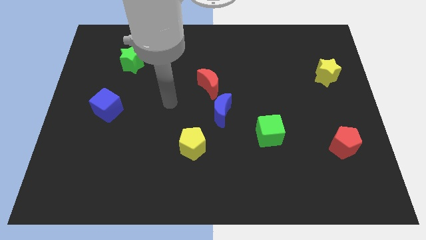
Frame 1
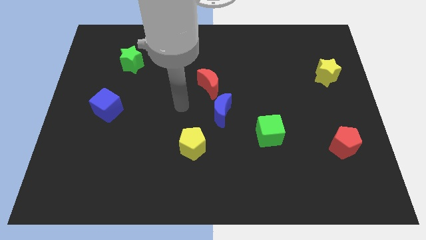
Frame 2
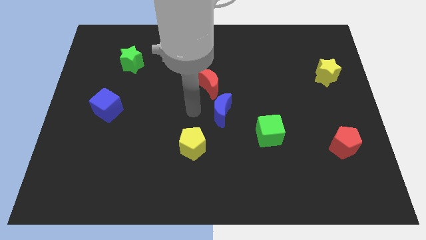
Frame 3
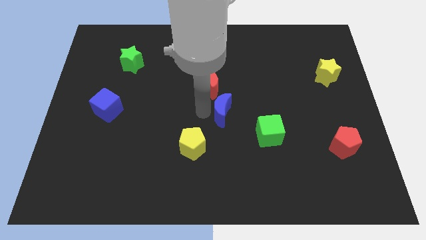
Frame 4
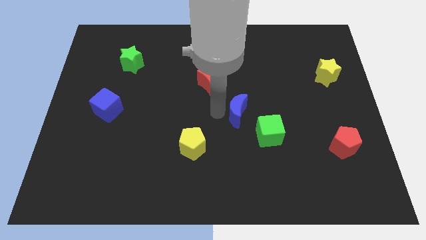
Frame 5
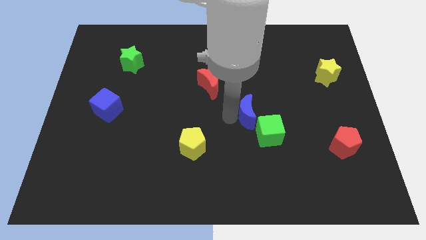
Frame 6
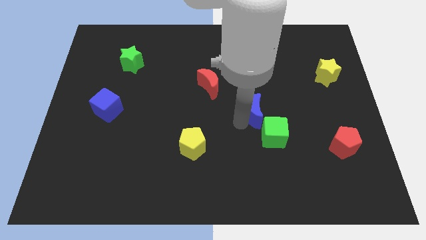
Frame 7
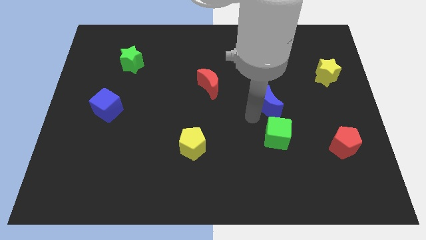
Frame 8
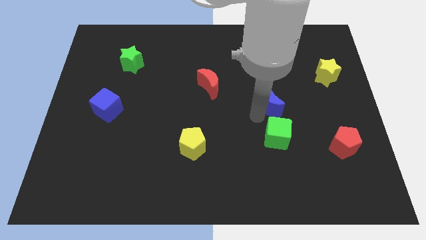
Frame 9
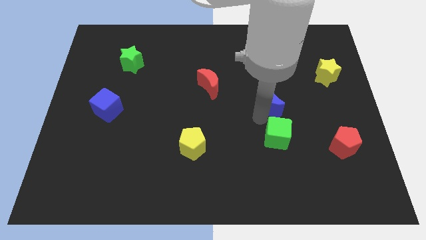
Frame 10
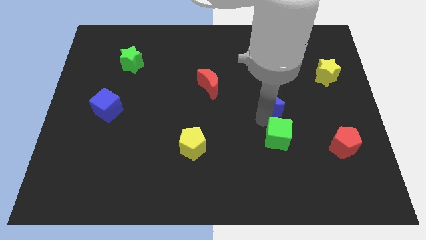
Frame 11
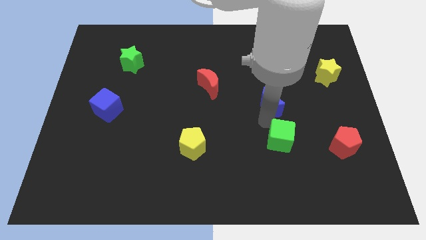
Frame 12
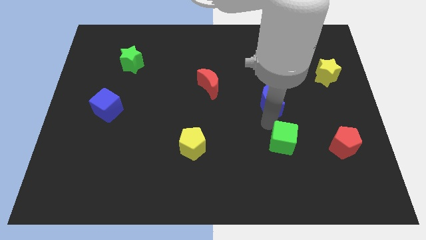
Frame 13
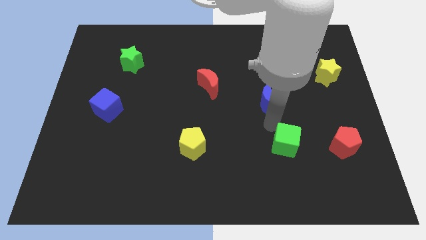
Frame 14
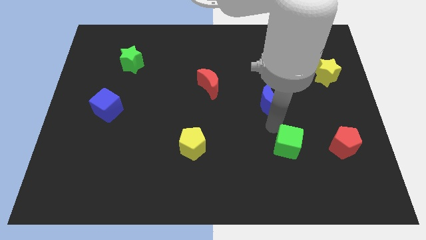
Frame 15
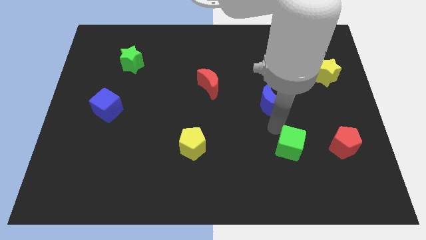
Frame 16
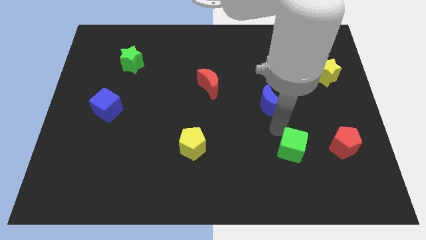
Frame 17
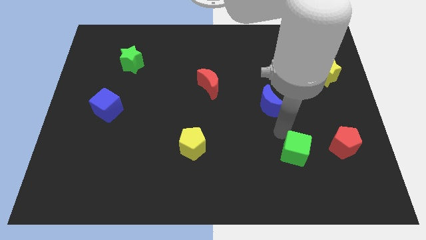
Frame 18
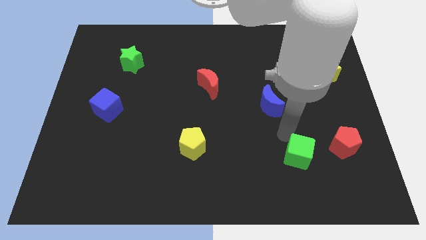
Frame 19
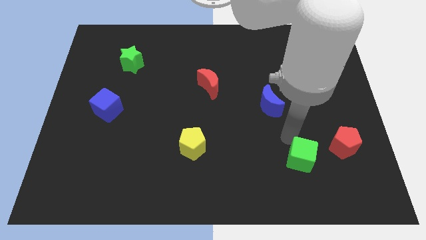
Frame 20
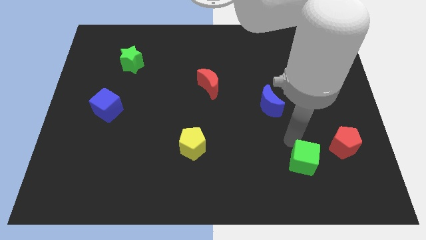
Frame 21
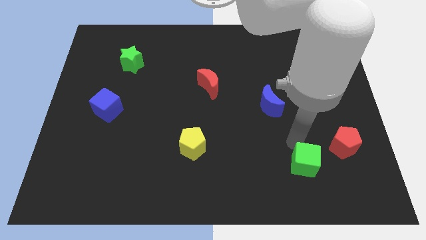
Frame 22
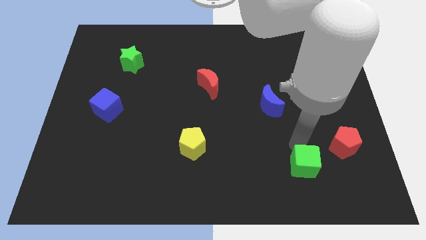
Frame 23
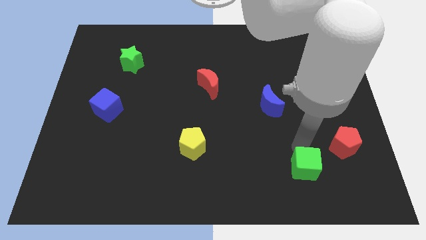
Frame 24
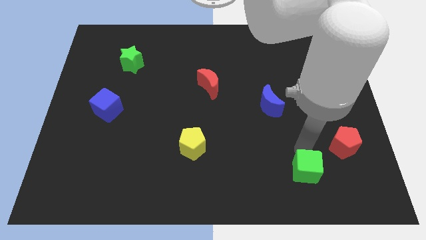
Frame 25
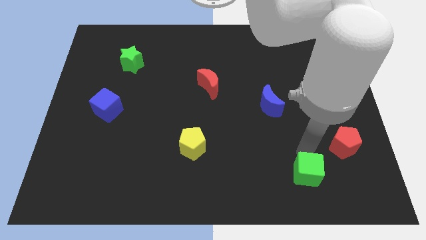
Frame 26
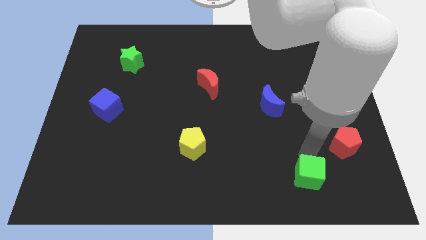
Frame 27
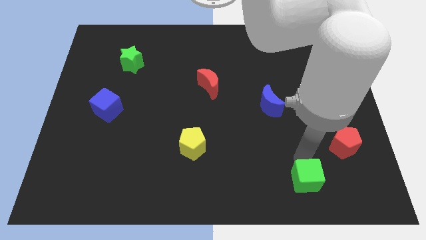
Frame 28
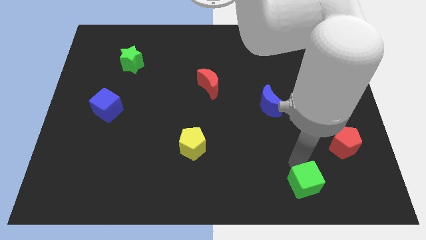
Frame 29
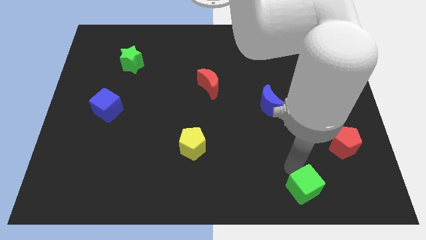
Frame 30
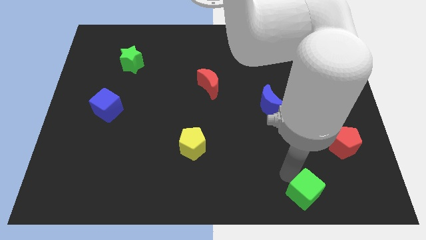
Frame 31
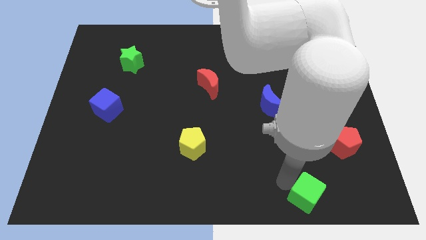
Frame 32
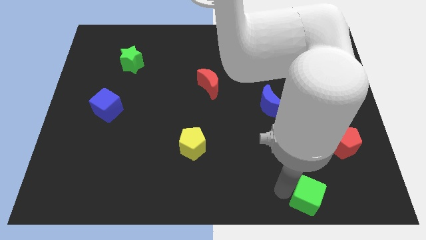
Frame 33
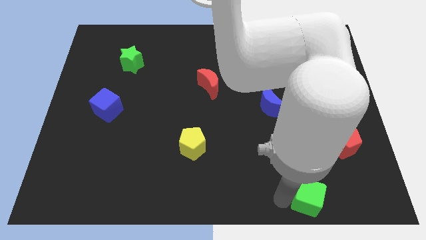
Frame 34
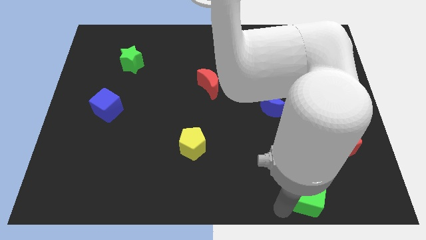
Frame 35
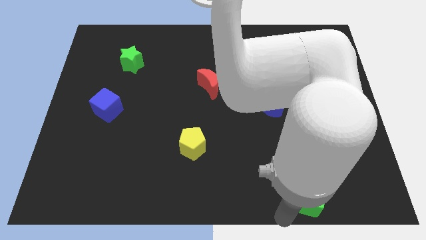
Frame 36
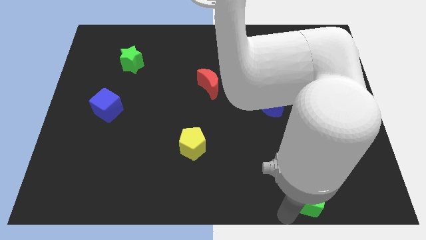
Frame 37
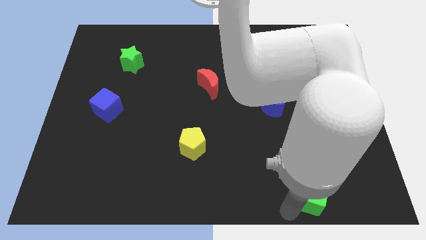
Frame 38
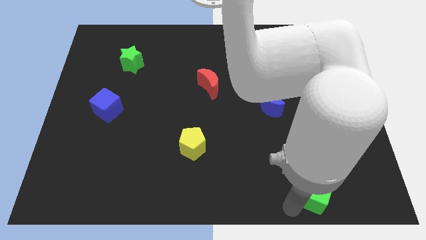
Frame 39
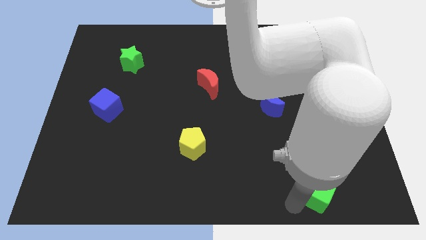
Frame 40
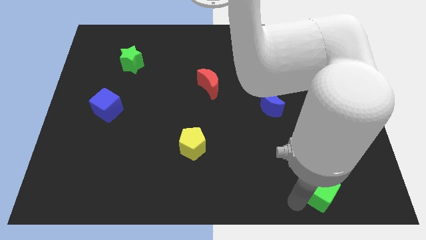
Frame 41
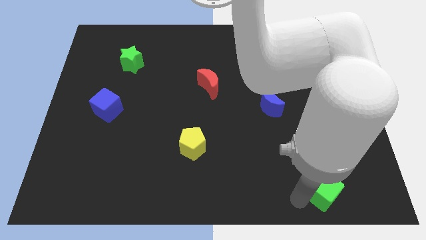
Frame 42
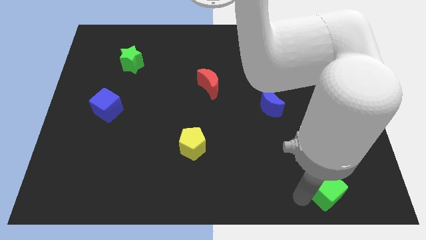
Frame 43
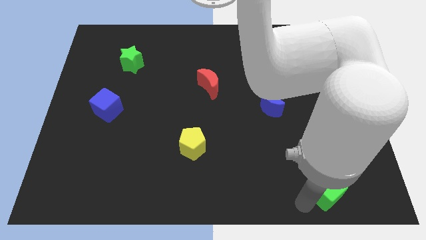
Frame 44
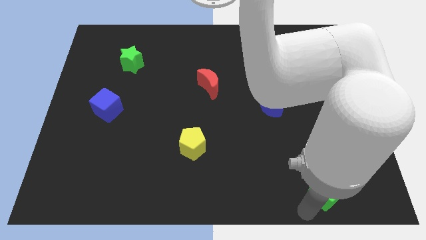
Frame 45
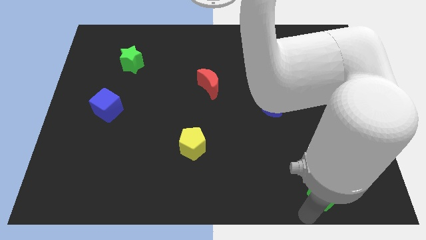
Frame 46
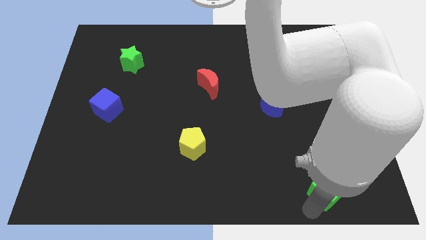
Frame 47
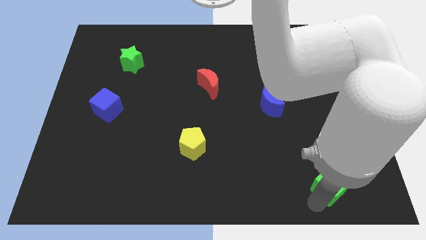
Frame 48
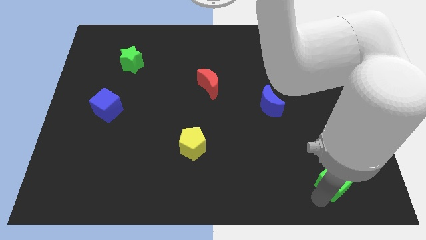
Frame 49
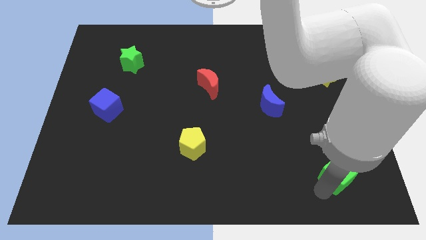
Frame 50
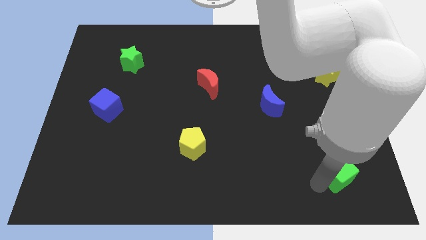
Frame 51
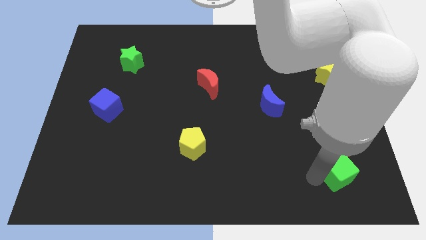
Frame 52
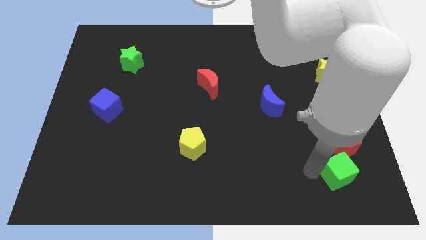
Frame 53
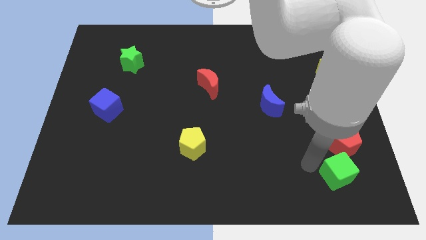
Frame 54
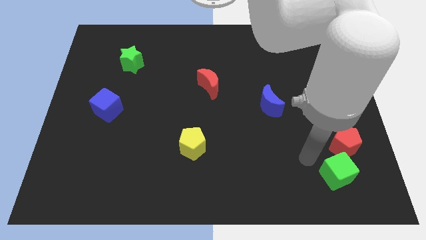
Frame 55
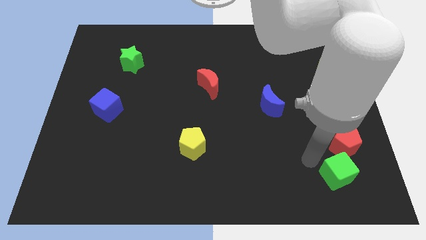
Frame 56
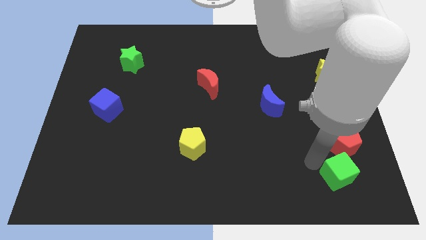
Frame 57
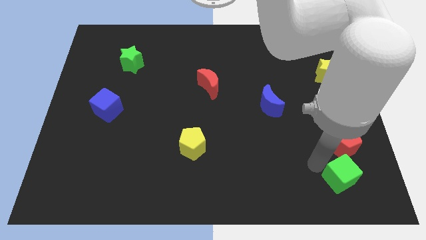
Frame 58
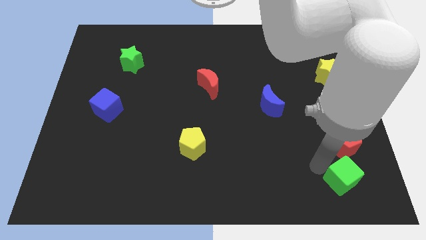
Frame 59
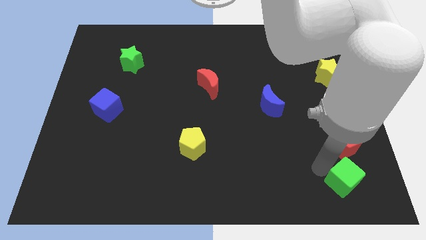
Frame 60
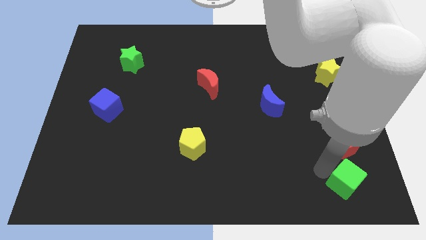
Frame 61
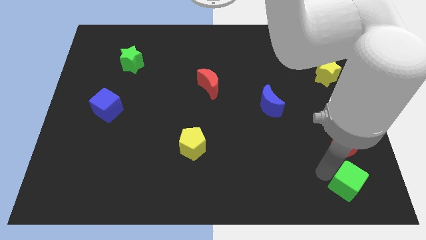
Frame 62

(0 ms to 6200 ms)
move the green cube to the bottom right corner

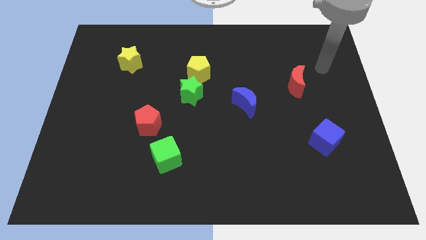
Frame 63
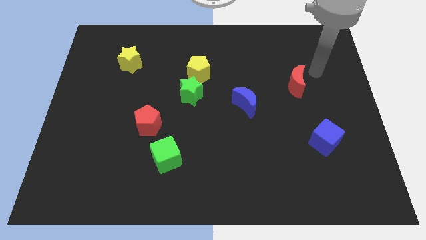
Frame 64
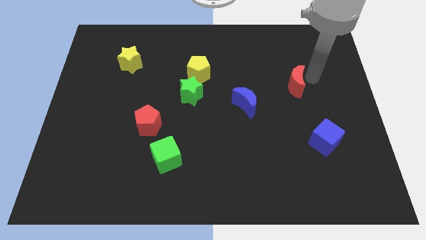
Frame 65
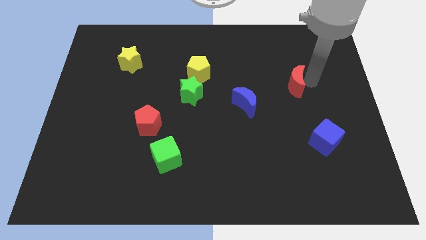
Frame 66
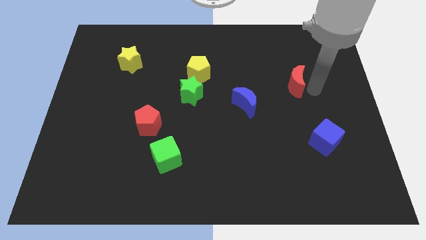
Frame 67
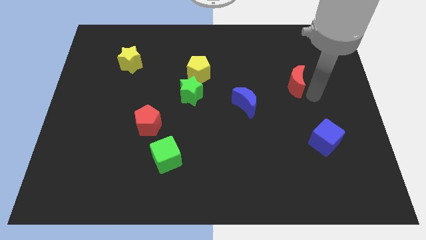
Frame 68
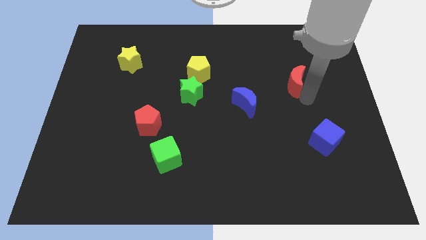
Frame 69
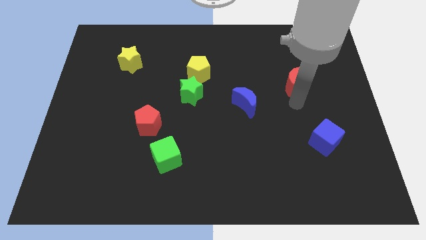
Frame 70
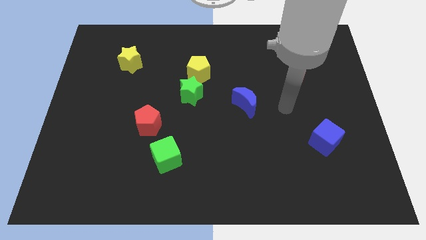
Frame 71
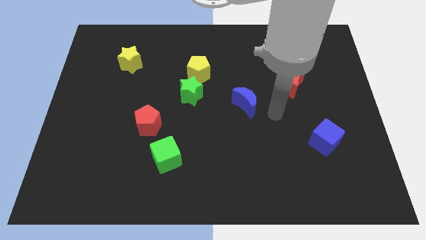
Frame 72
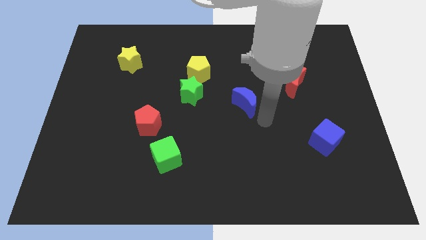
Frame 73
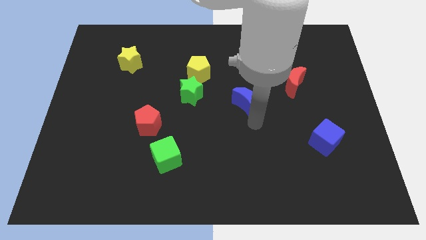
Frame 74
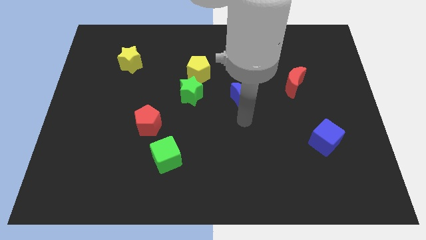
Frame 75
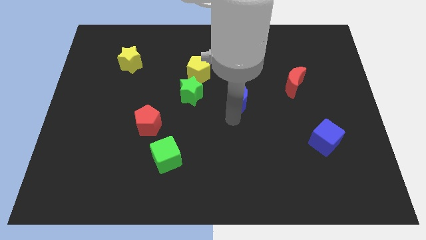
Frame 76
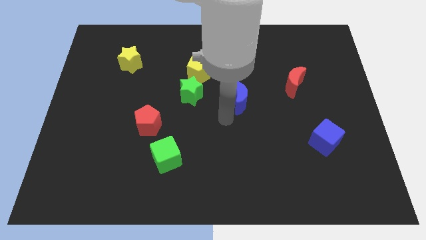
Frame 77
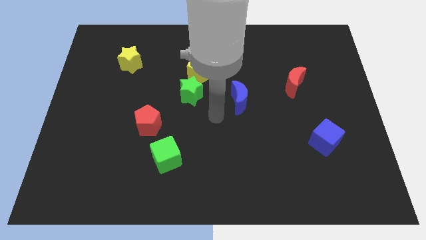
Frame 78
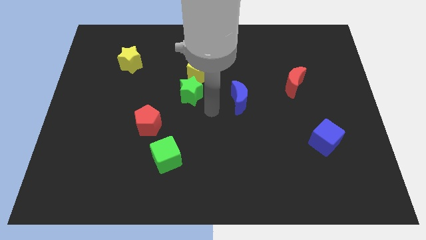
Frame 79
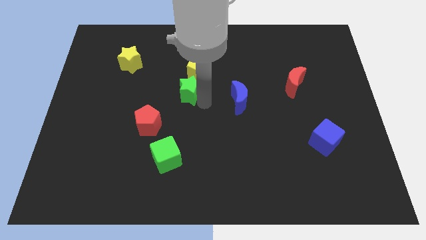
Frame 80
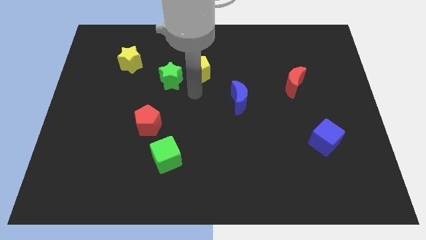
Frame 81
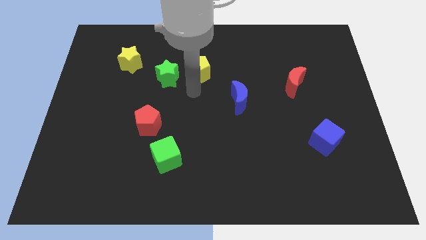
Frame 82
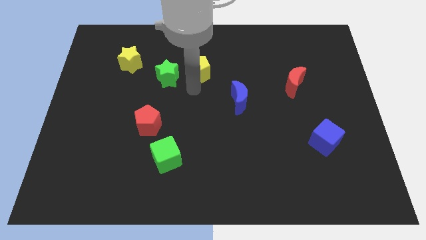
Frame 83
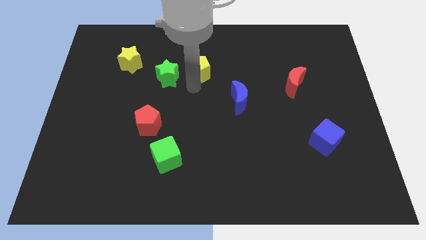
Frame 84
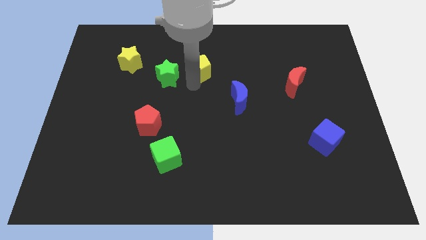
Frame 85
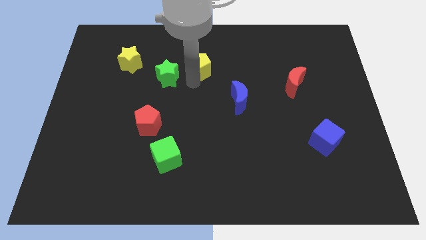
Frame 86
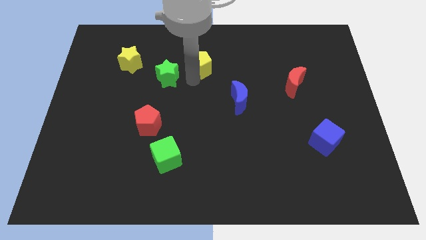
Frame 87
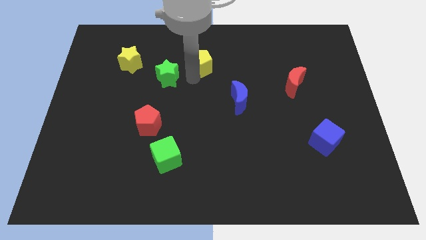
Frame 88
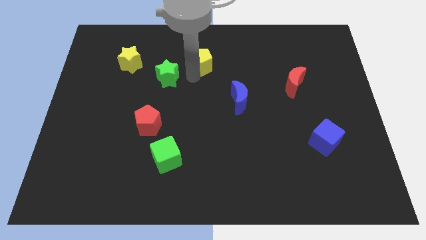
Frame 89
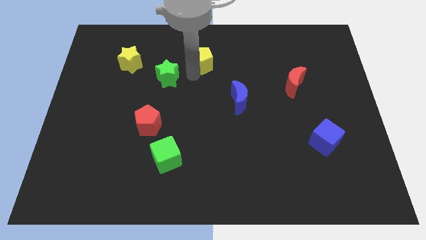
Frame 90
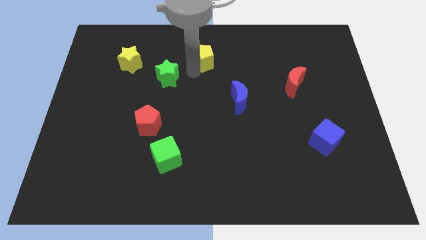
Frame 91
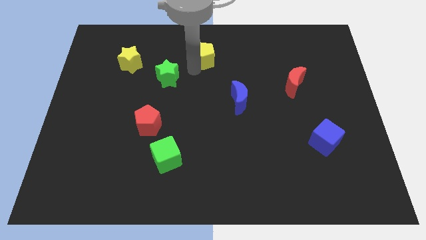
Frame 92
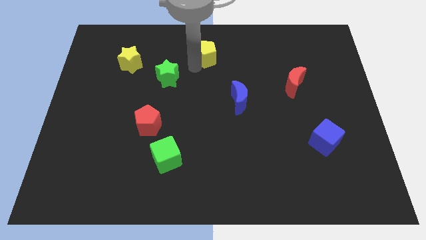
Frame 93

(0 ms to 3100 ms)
move the yellow pentagon to the top side
